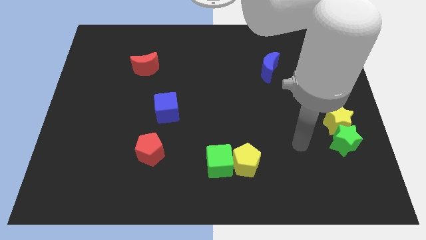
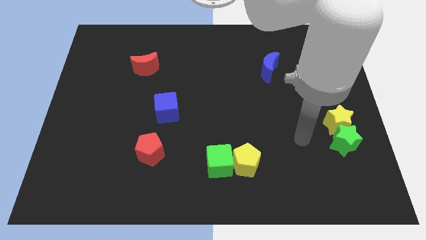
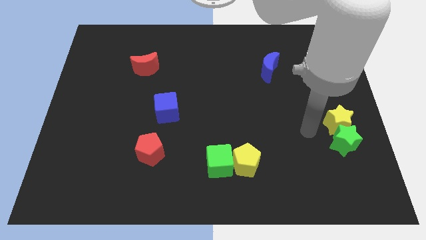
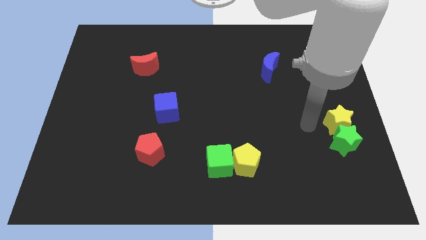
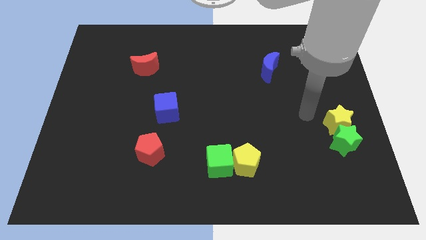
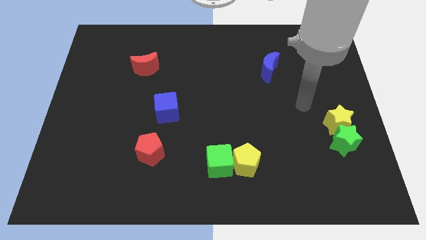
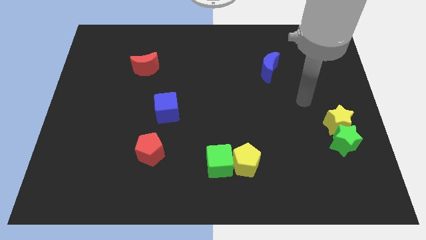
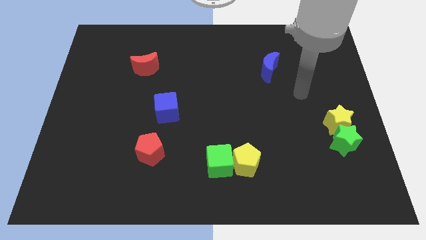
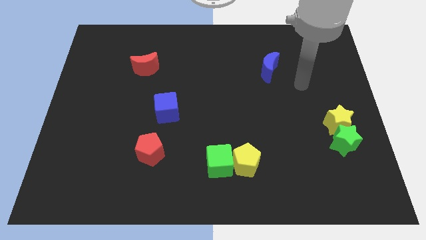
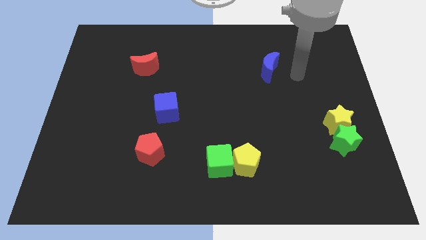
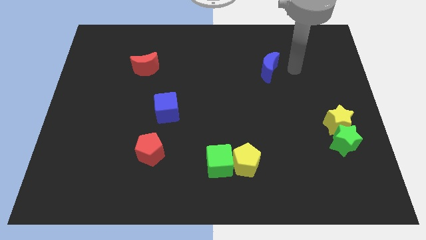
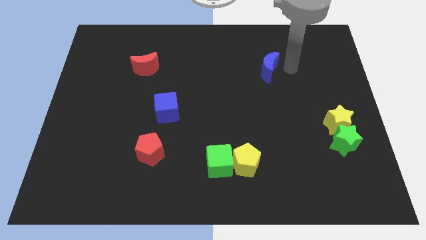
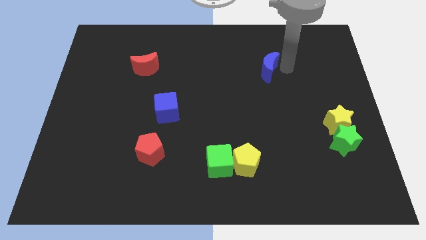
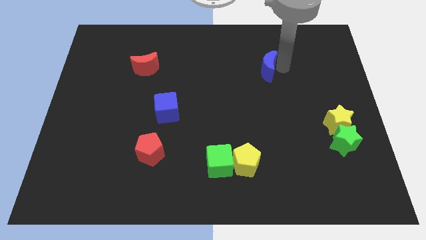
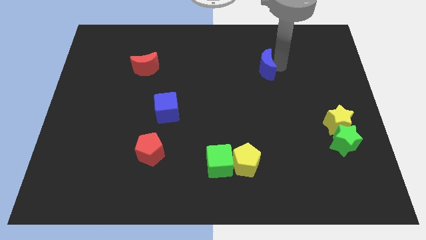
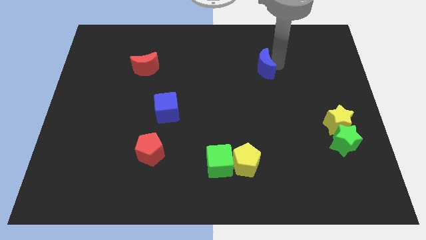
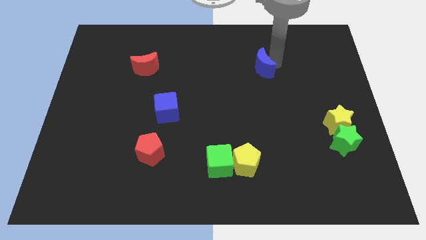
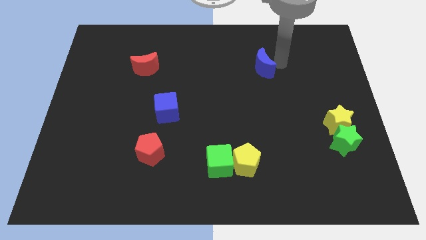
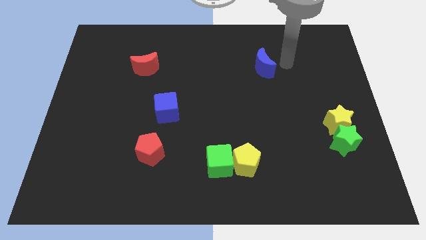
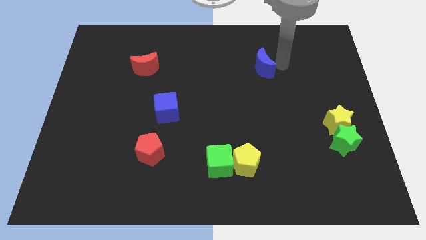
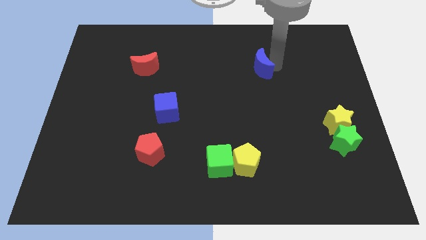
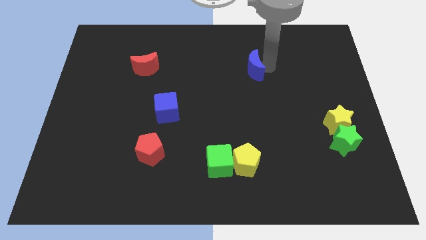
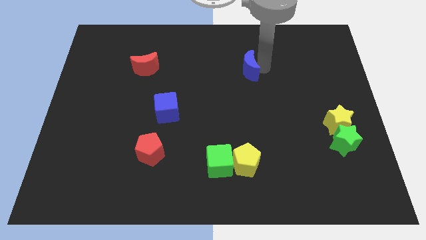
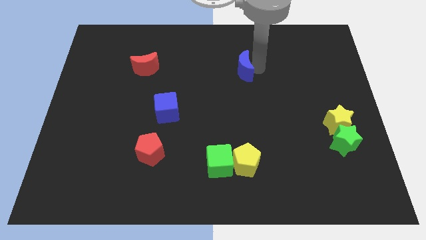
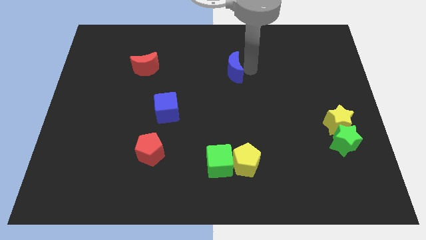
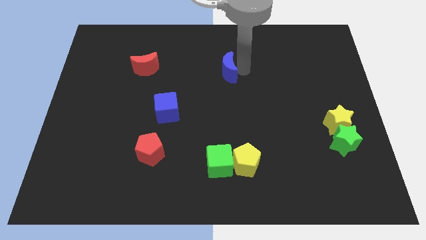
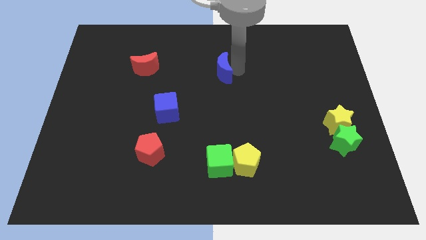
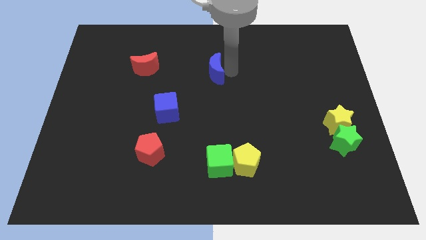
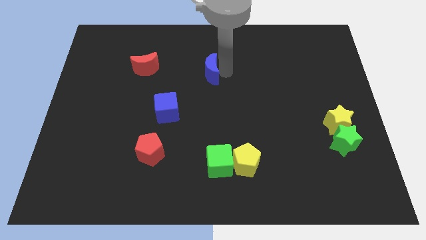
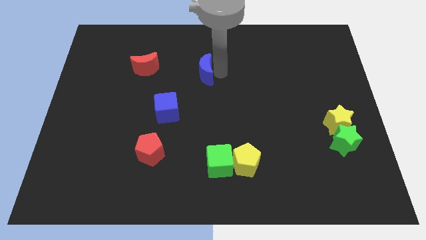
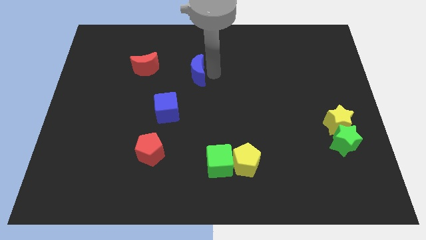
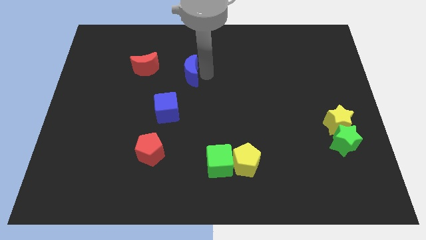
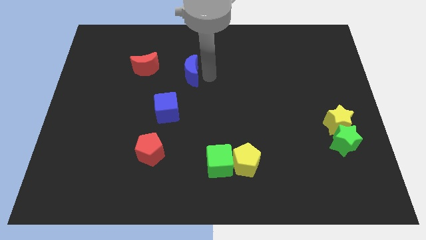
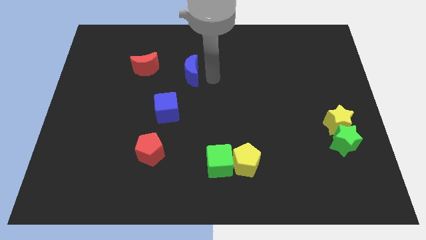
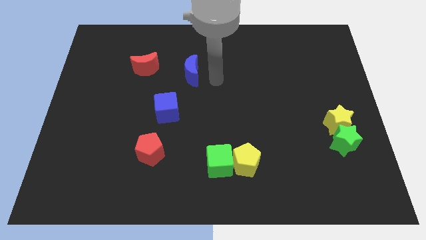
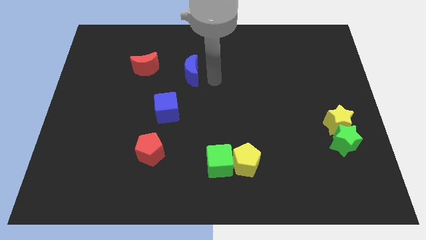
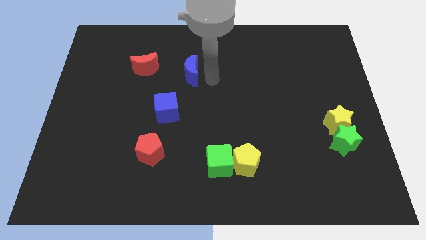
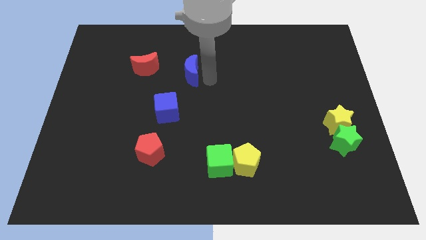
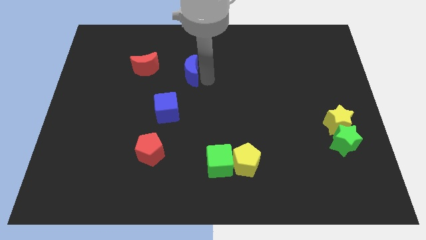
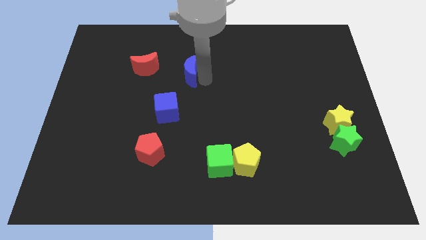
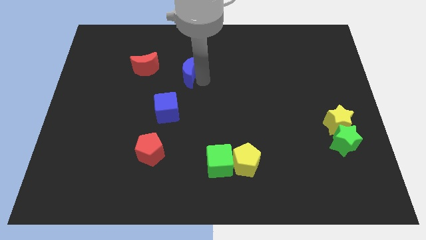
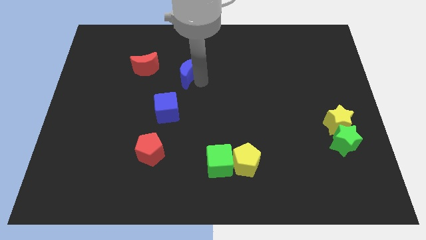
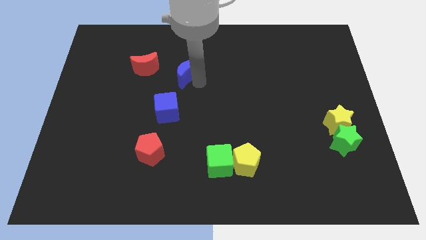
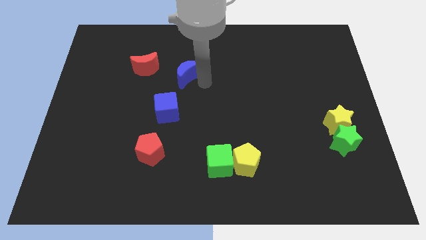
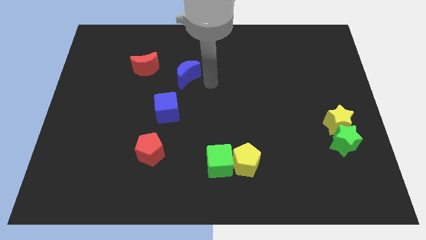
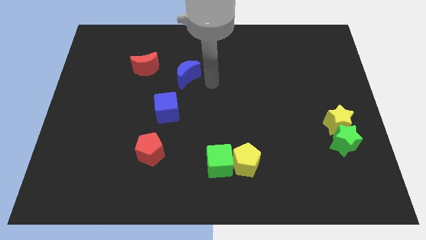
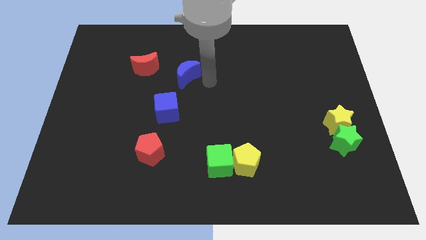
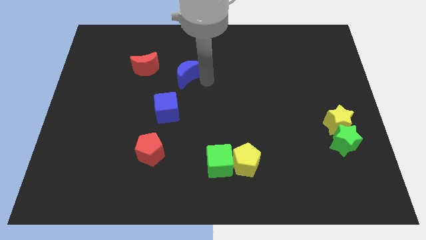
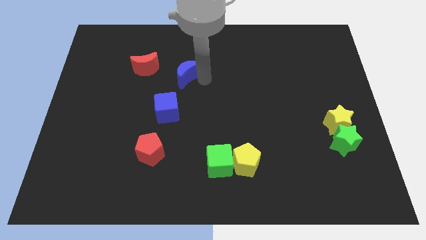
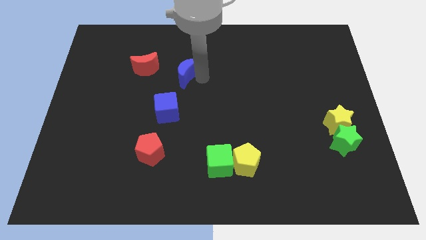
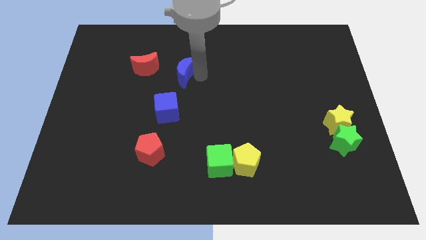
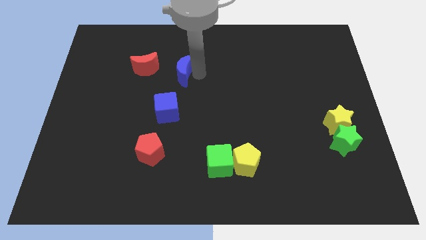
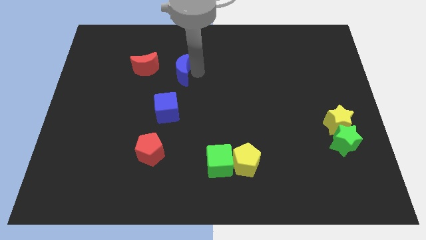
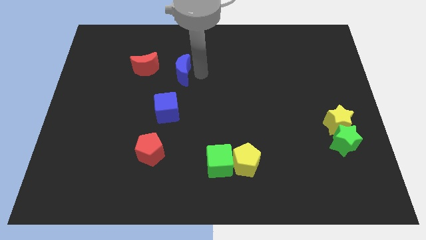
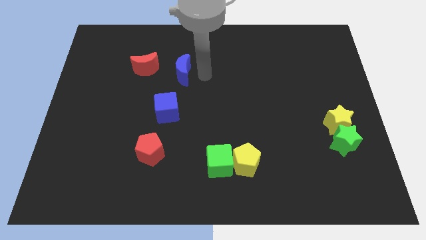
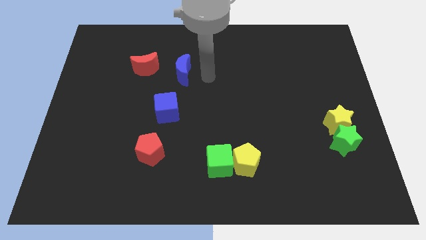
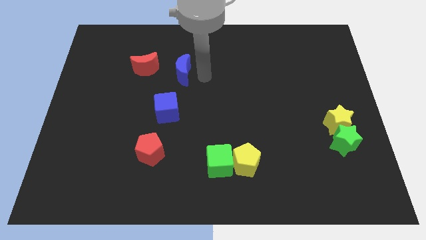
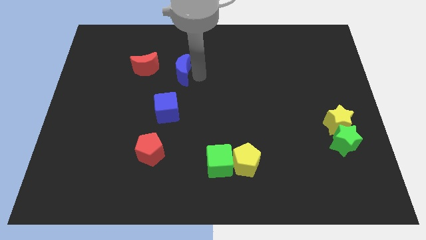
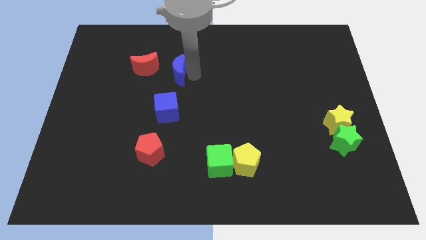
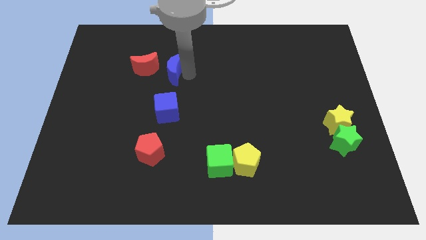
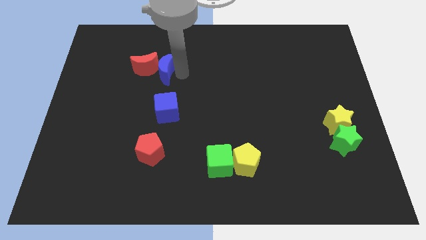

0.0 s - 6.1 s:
put the blue moon to the red moon

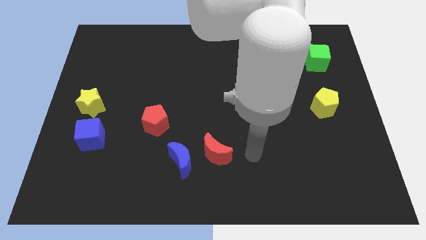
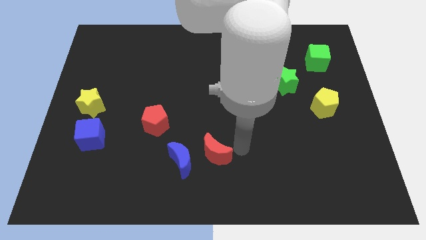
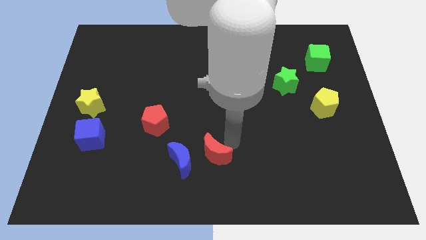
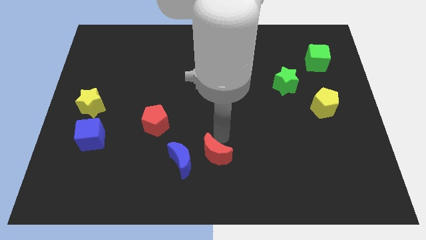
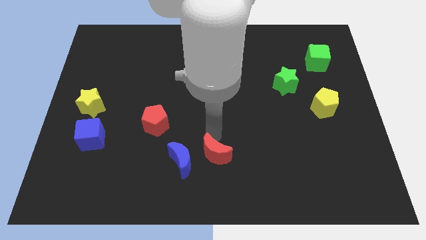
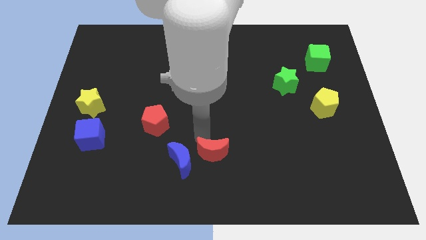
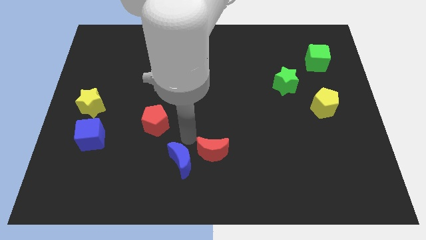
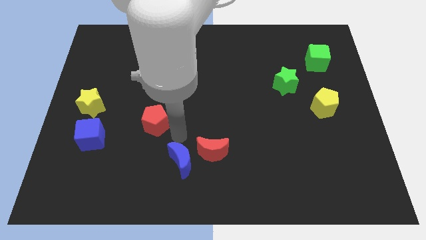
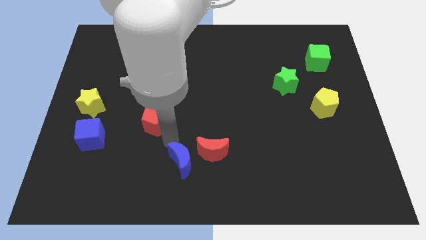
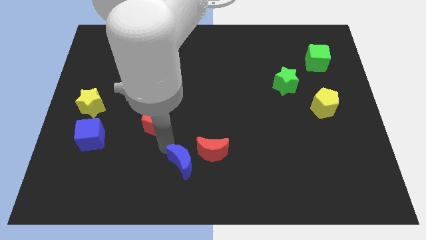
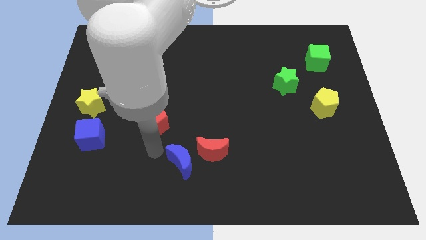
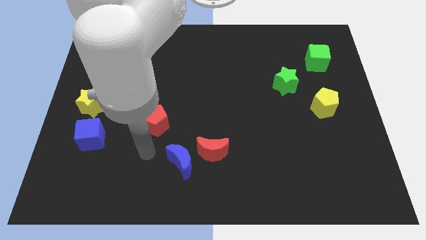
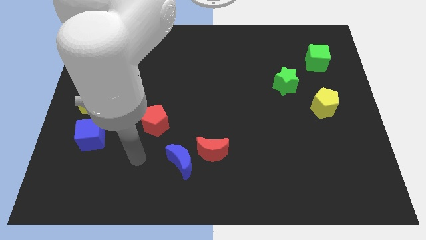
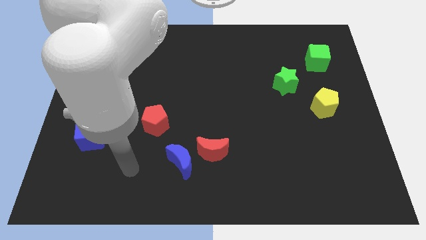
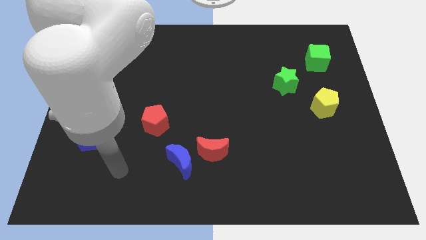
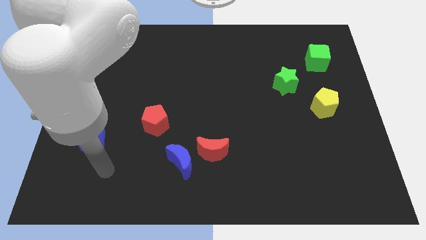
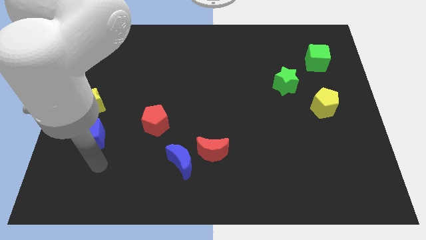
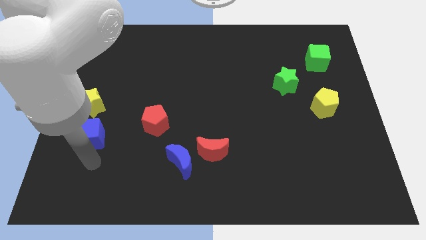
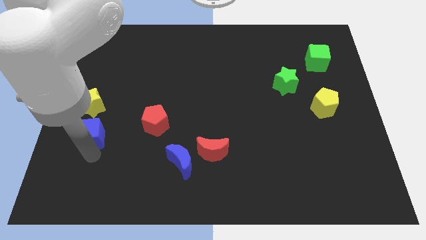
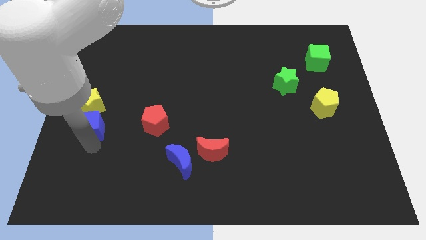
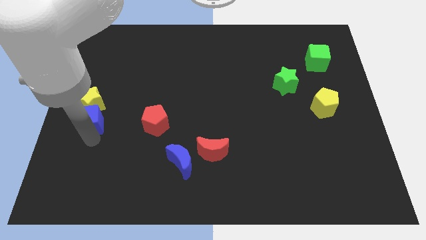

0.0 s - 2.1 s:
put the blue cube next to the yellow star
